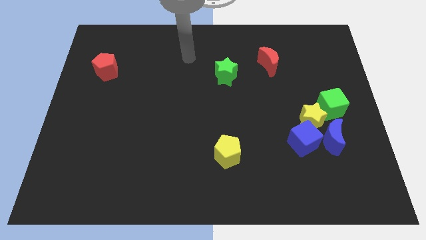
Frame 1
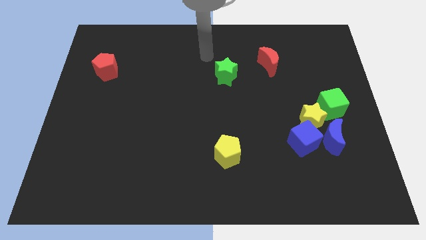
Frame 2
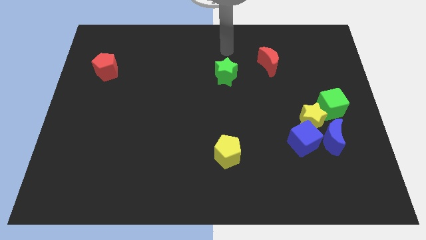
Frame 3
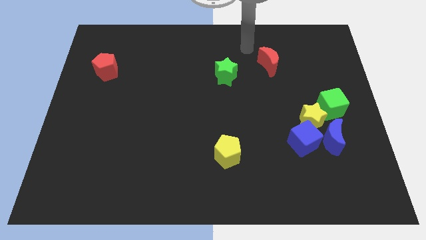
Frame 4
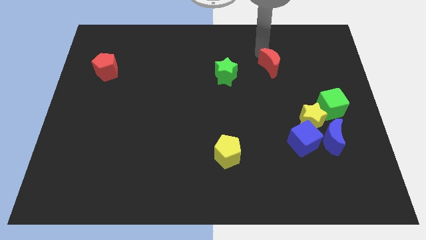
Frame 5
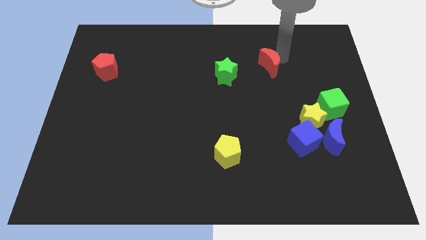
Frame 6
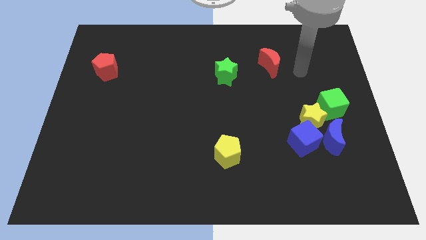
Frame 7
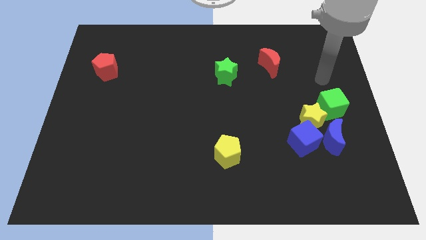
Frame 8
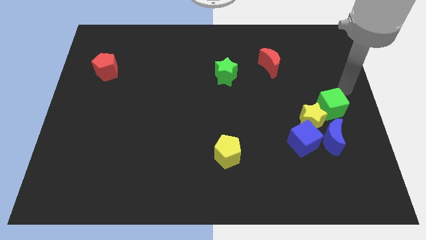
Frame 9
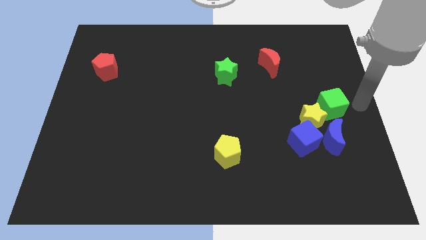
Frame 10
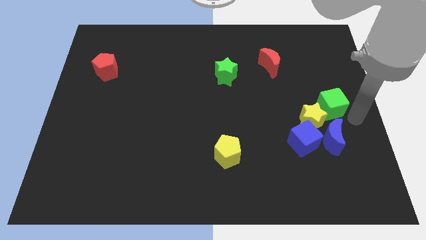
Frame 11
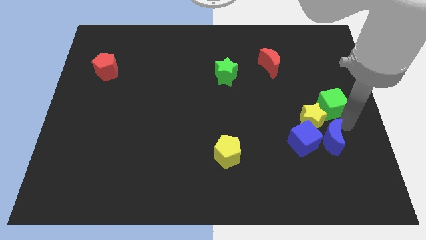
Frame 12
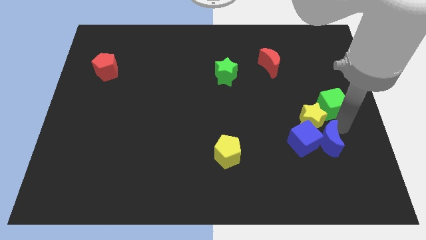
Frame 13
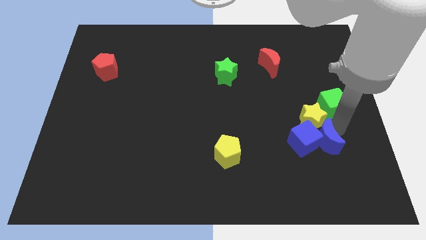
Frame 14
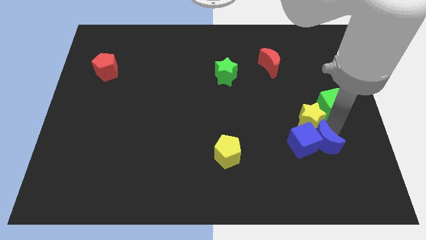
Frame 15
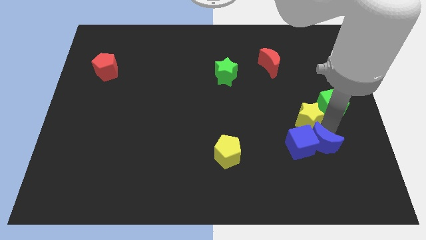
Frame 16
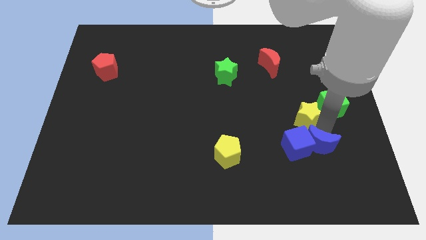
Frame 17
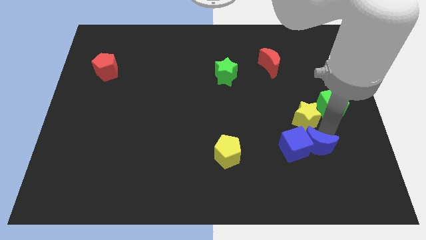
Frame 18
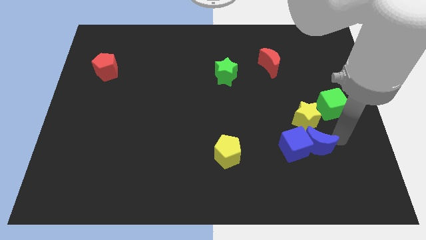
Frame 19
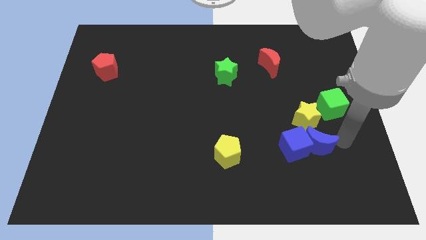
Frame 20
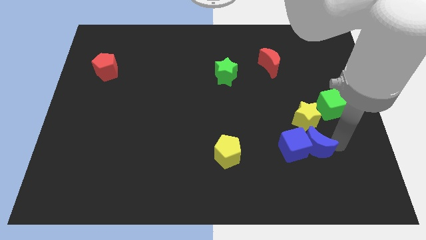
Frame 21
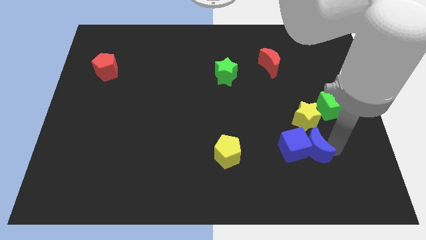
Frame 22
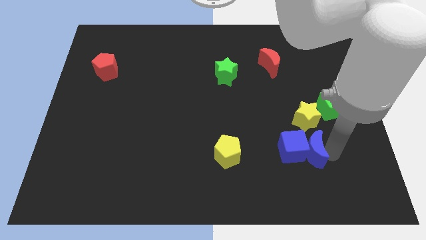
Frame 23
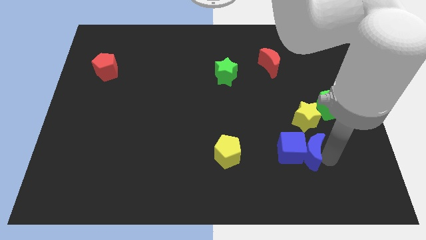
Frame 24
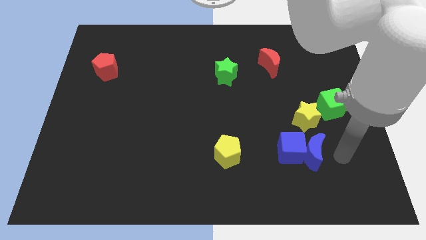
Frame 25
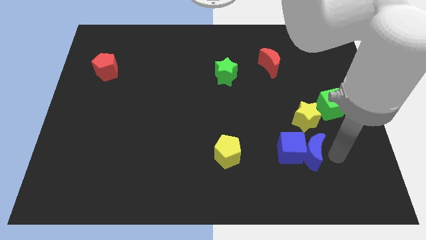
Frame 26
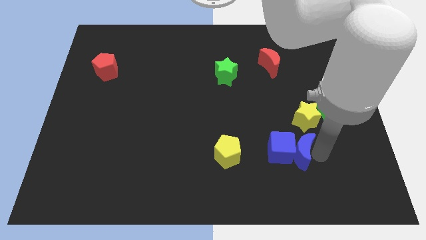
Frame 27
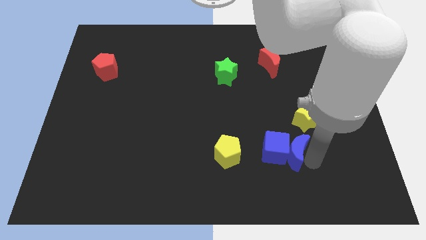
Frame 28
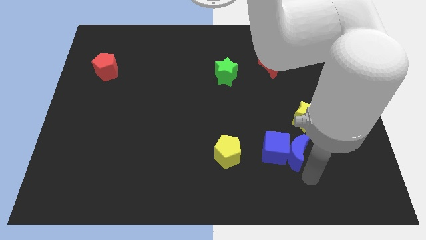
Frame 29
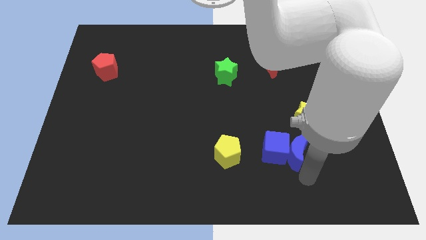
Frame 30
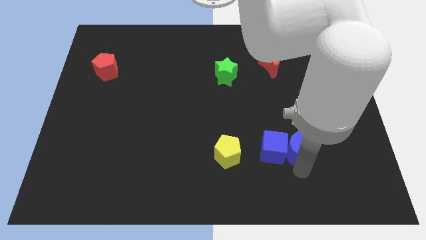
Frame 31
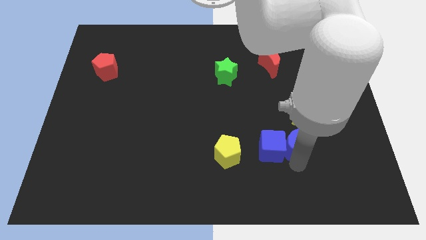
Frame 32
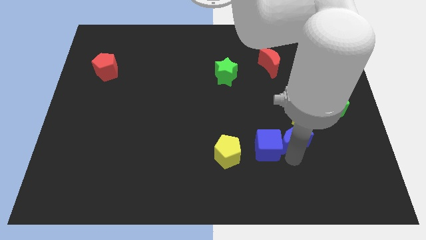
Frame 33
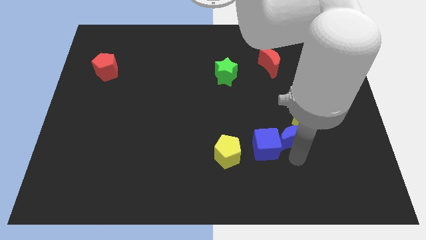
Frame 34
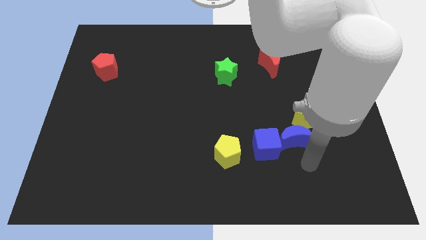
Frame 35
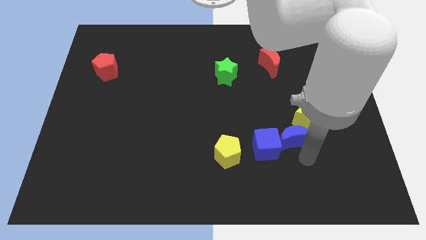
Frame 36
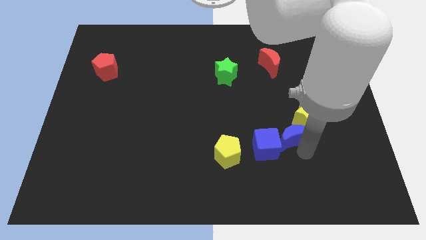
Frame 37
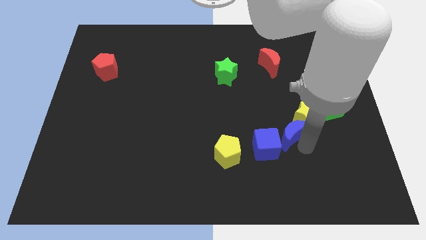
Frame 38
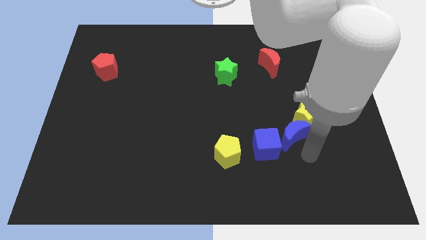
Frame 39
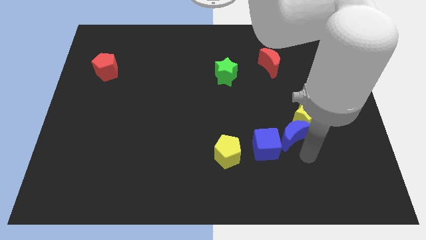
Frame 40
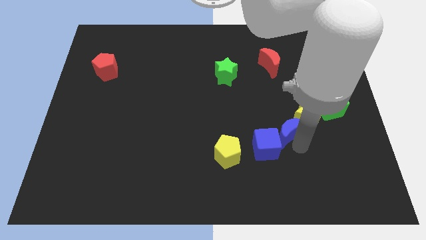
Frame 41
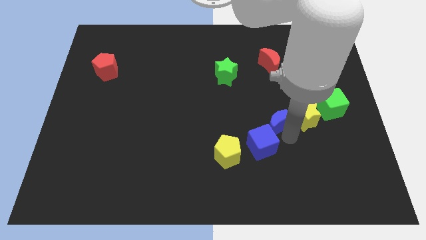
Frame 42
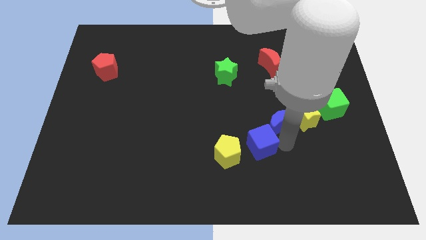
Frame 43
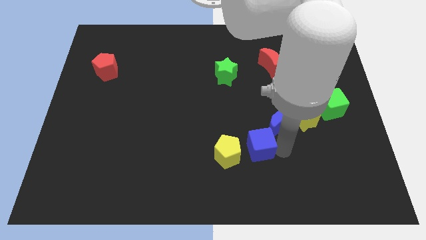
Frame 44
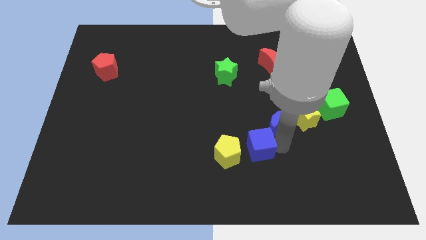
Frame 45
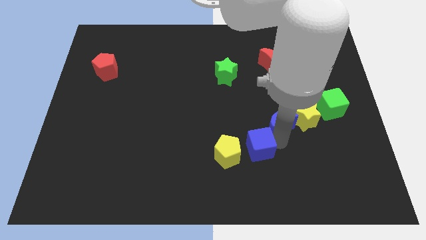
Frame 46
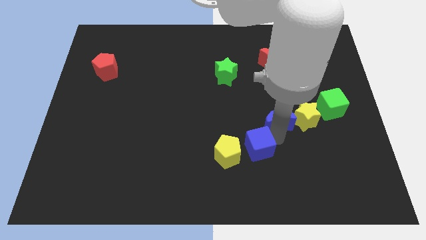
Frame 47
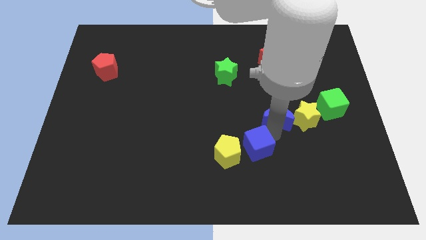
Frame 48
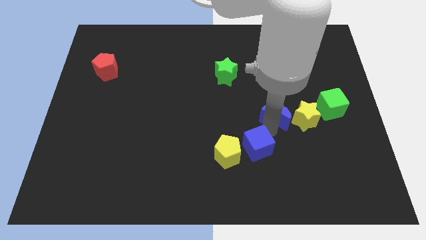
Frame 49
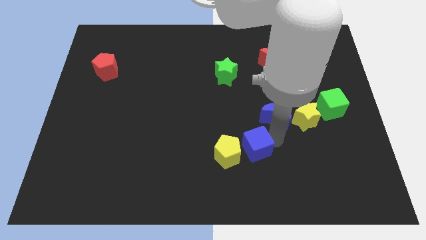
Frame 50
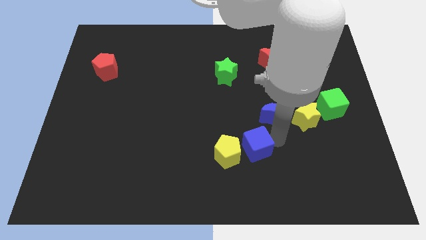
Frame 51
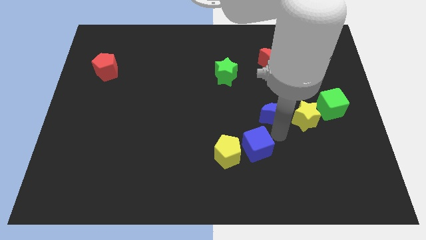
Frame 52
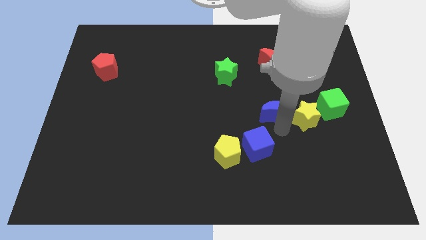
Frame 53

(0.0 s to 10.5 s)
slide the blue moon to the bottom of the red moon

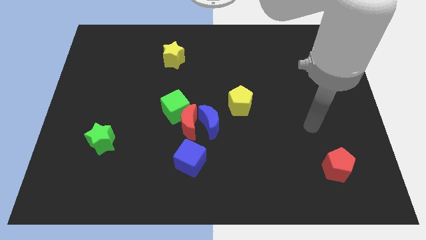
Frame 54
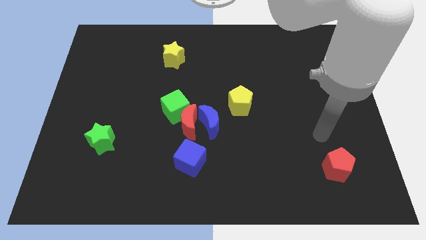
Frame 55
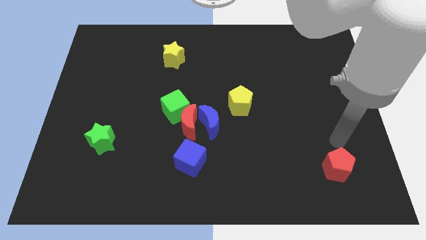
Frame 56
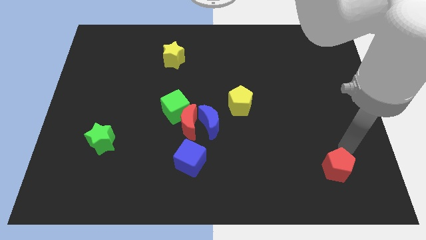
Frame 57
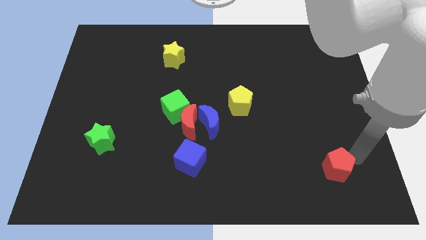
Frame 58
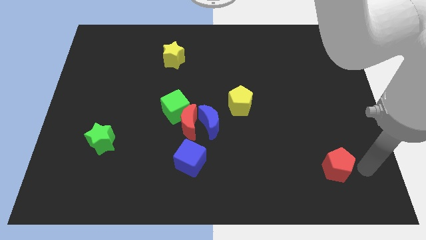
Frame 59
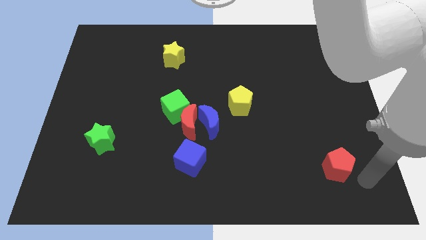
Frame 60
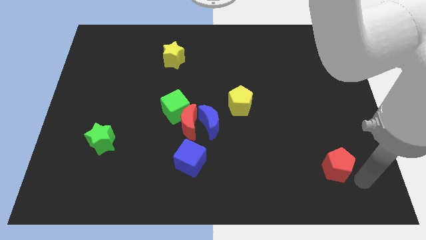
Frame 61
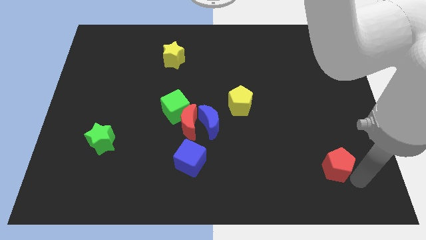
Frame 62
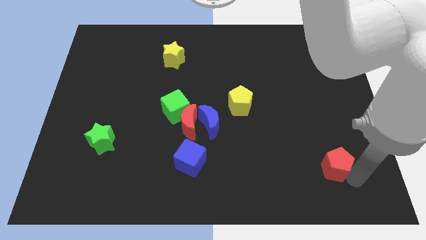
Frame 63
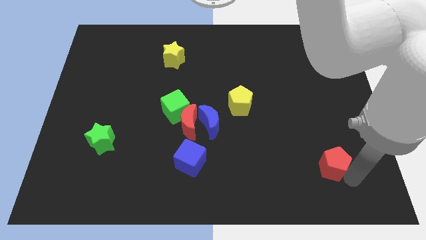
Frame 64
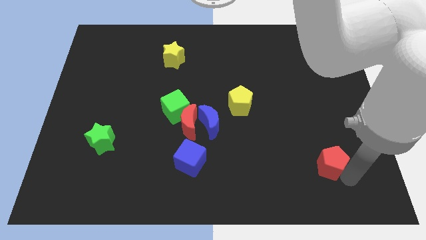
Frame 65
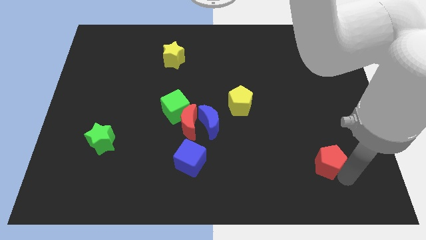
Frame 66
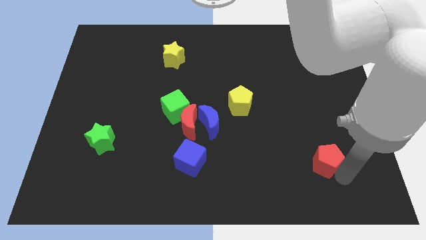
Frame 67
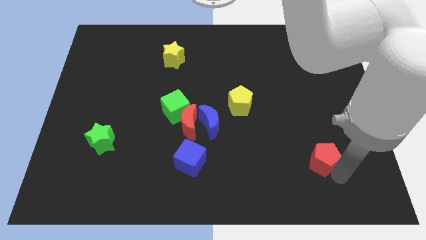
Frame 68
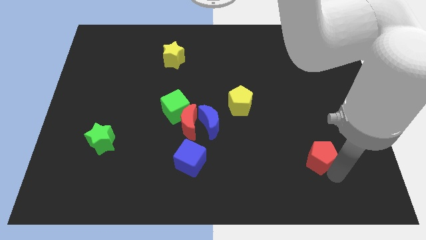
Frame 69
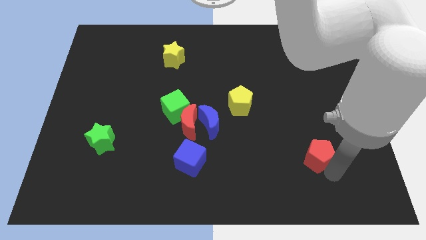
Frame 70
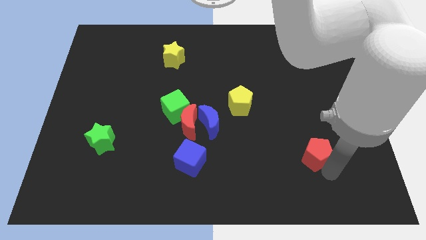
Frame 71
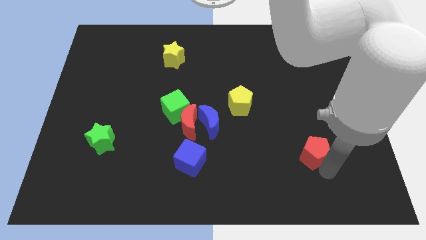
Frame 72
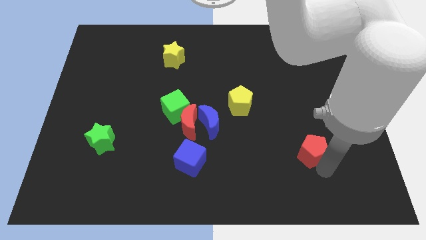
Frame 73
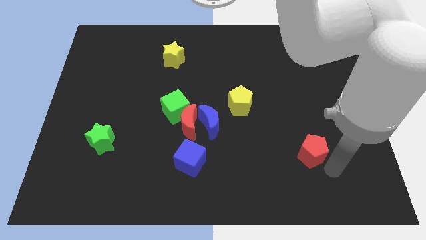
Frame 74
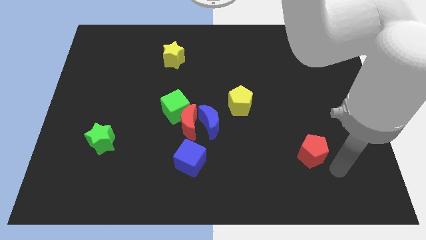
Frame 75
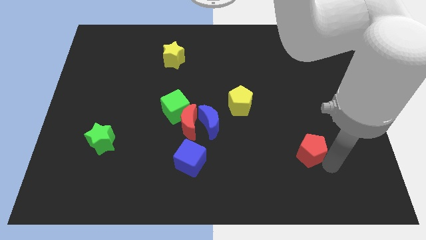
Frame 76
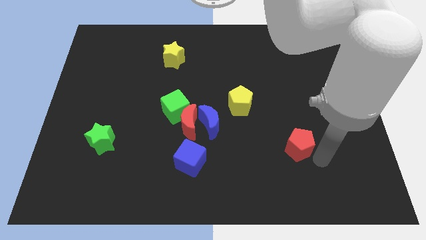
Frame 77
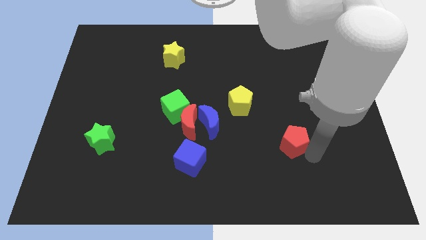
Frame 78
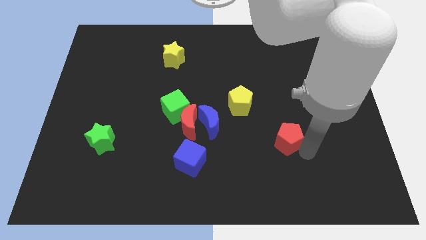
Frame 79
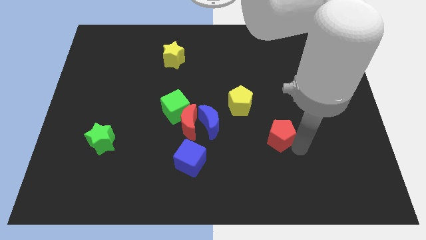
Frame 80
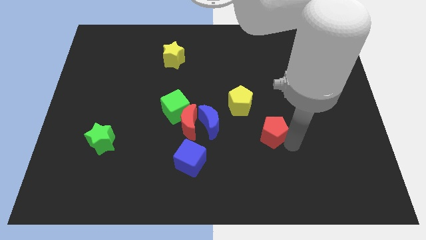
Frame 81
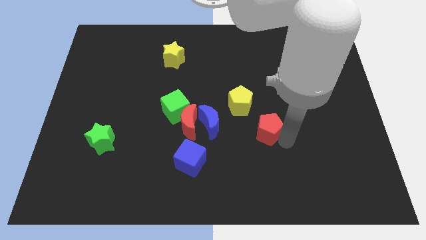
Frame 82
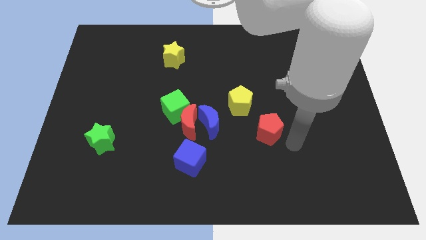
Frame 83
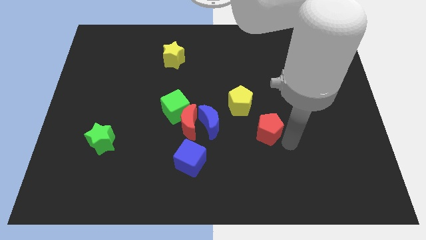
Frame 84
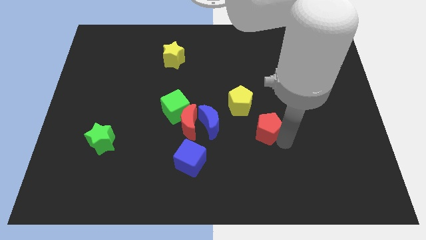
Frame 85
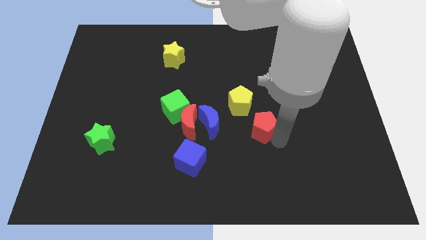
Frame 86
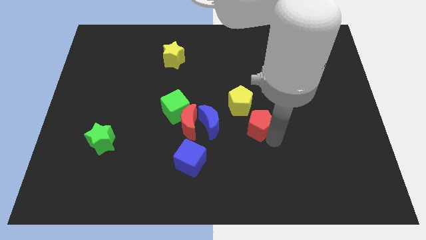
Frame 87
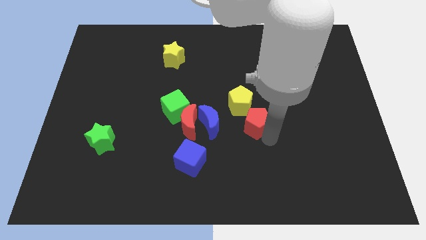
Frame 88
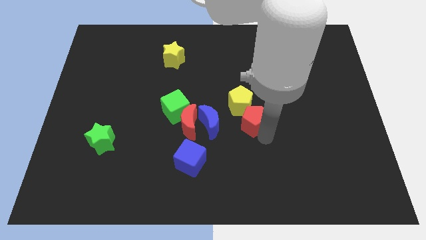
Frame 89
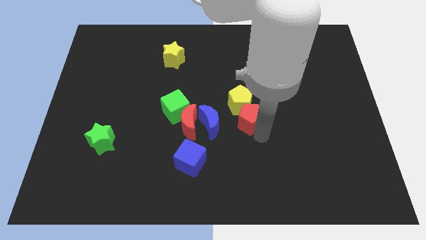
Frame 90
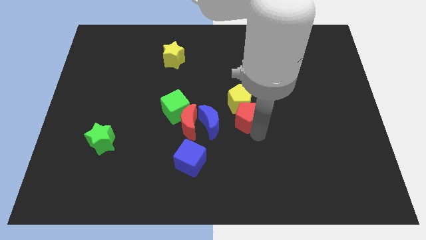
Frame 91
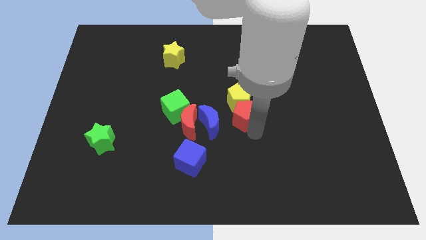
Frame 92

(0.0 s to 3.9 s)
put the red pentagon just right of the green cube
